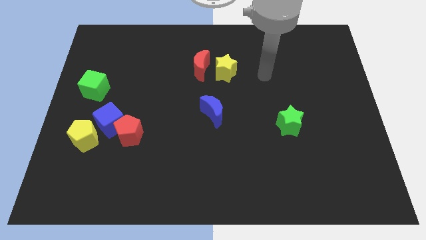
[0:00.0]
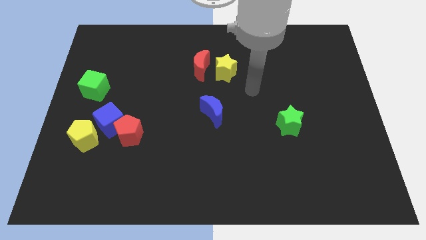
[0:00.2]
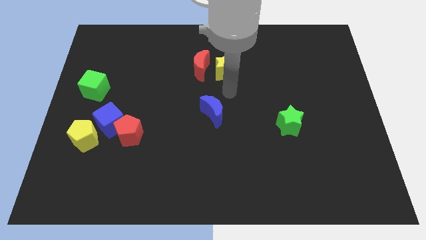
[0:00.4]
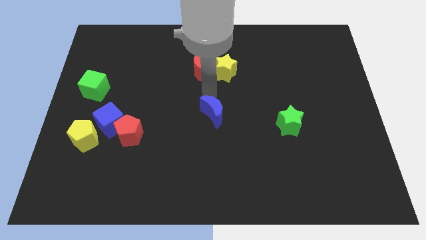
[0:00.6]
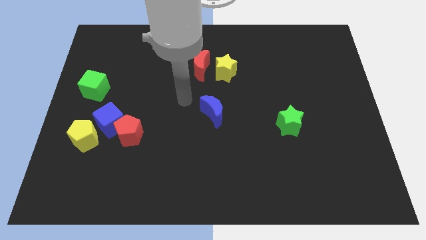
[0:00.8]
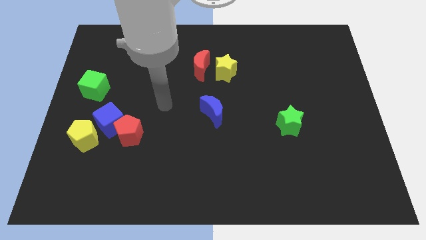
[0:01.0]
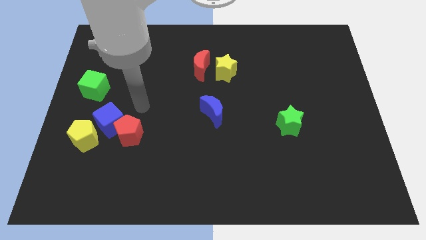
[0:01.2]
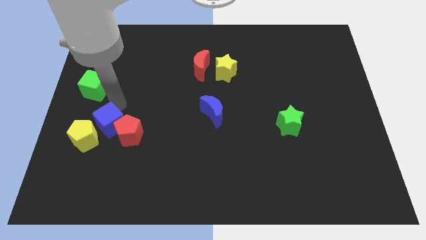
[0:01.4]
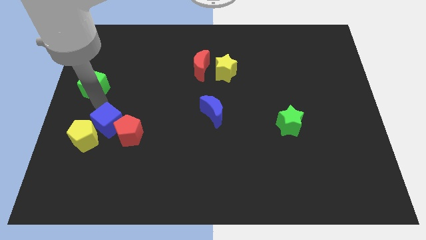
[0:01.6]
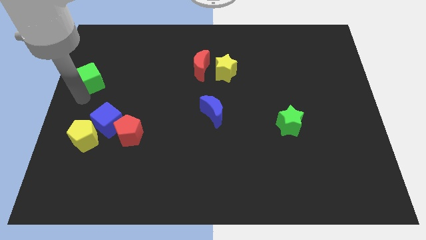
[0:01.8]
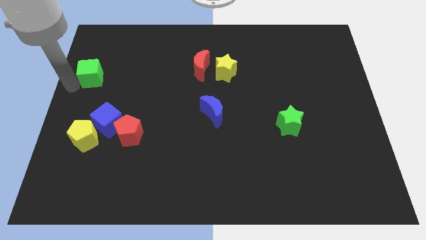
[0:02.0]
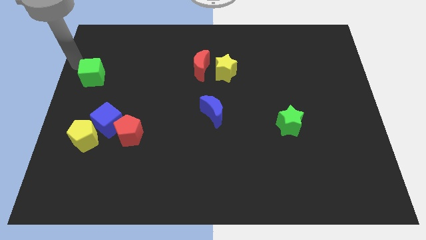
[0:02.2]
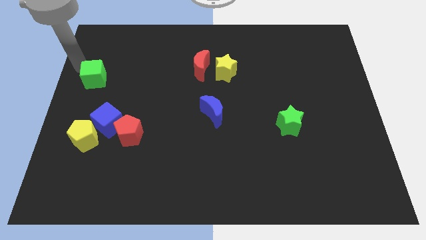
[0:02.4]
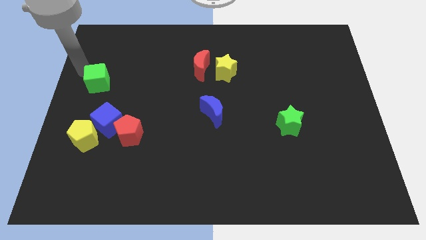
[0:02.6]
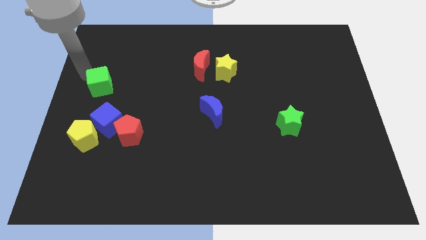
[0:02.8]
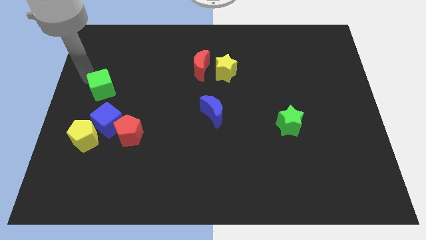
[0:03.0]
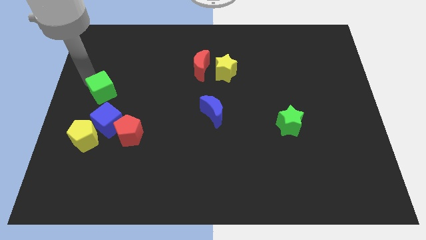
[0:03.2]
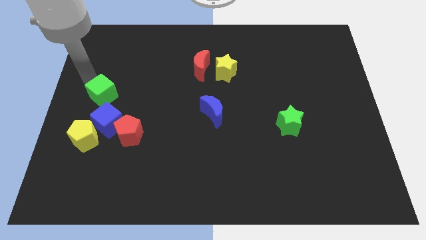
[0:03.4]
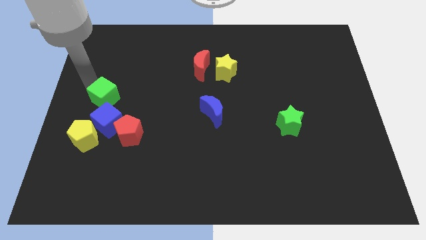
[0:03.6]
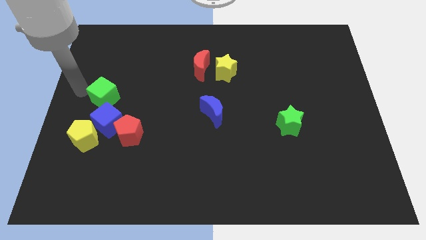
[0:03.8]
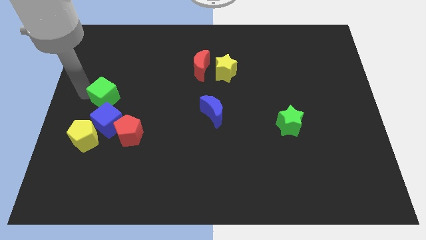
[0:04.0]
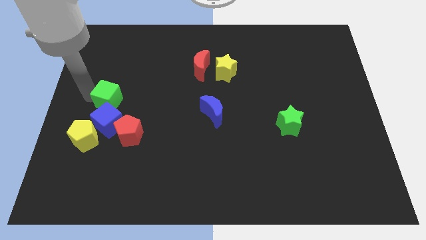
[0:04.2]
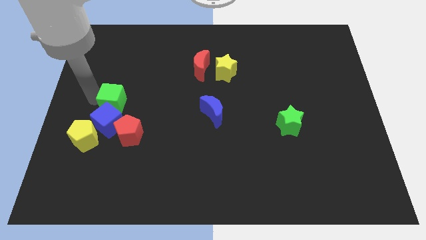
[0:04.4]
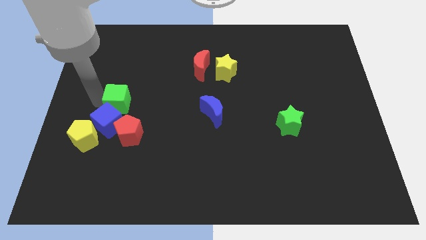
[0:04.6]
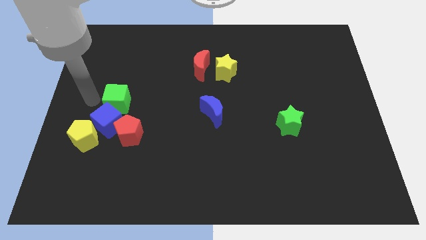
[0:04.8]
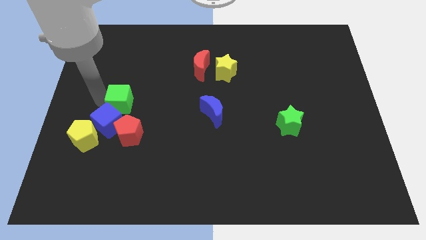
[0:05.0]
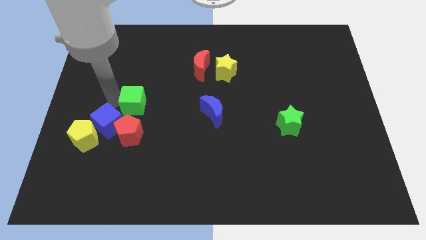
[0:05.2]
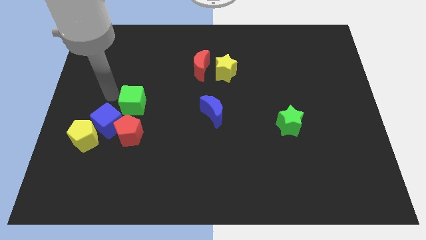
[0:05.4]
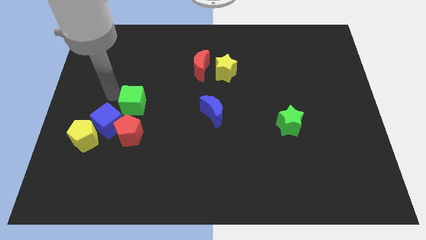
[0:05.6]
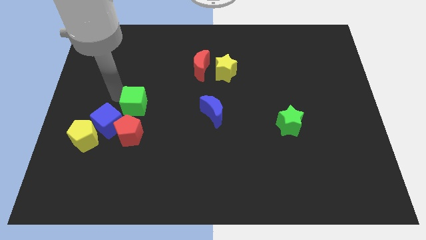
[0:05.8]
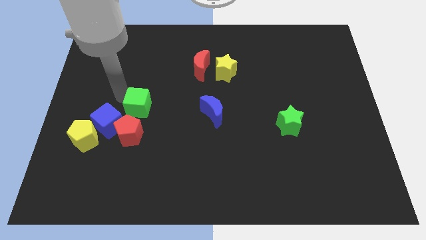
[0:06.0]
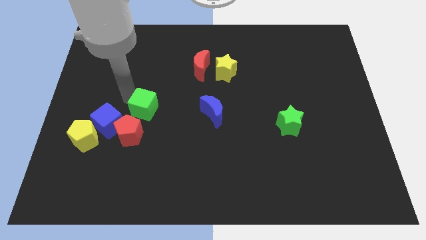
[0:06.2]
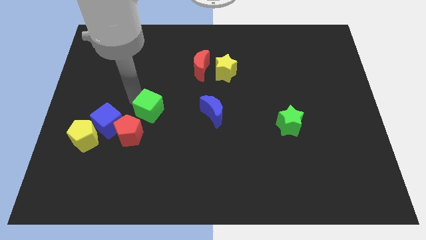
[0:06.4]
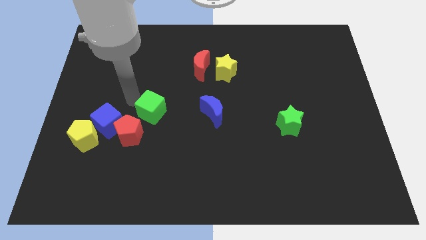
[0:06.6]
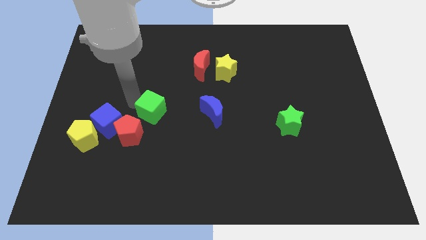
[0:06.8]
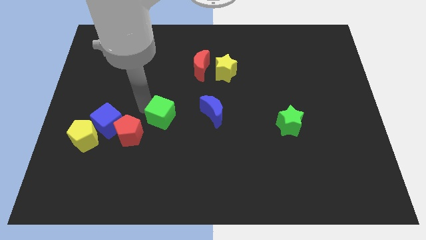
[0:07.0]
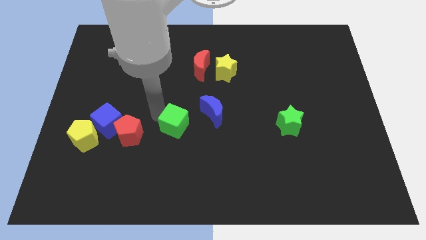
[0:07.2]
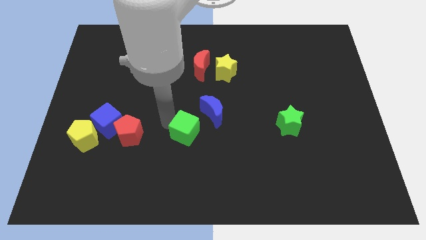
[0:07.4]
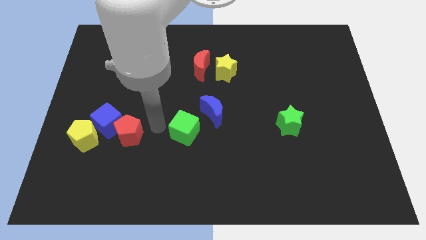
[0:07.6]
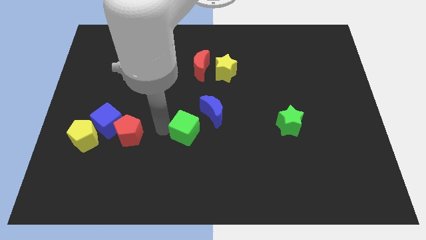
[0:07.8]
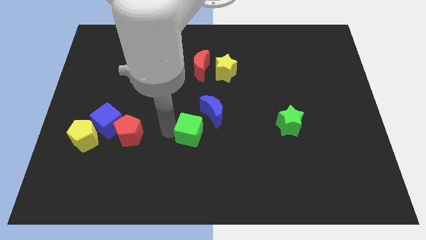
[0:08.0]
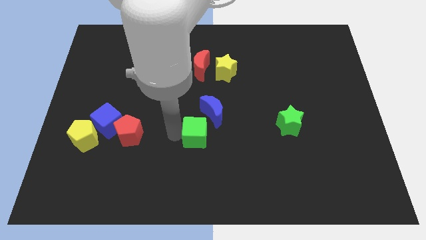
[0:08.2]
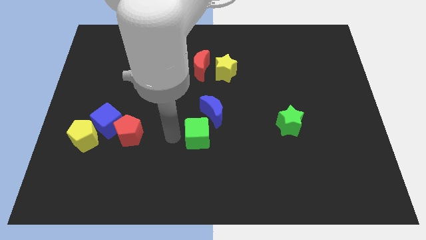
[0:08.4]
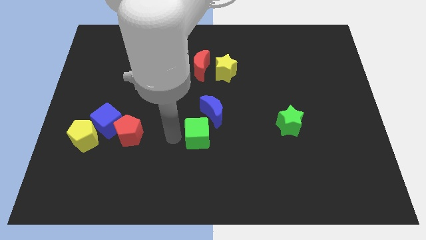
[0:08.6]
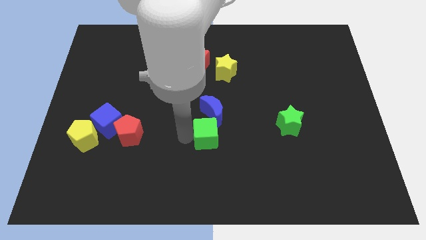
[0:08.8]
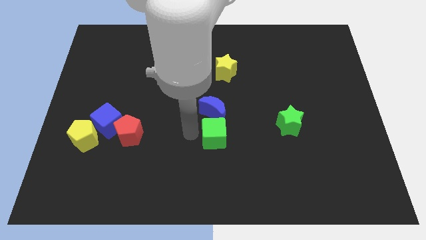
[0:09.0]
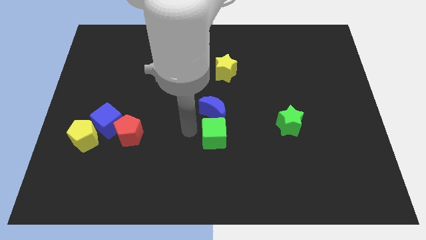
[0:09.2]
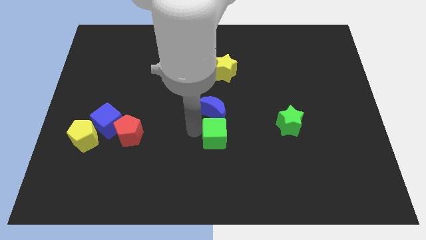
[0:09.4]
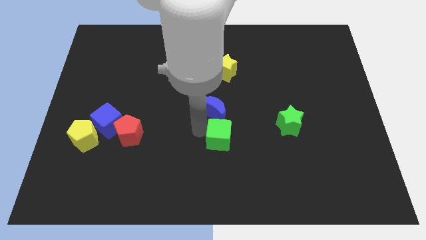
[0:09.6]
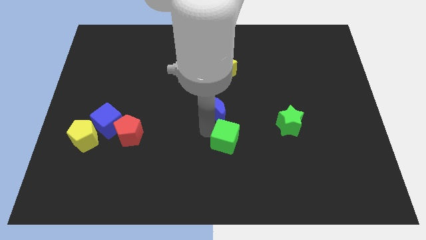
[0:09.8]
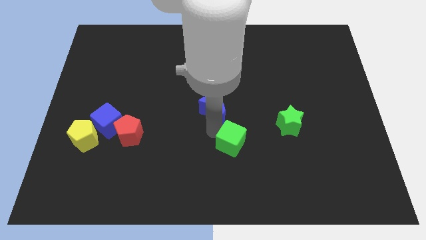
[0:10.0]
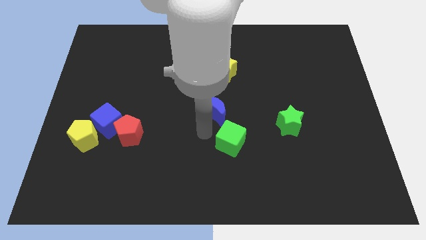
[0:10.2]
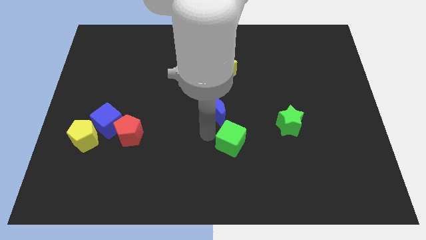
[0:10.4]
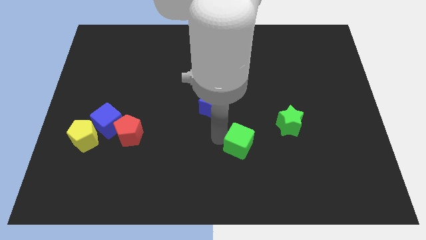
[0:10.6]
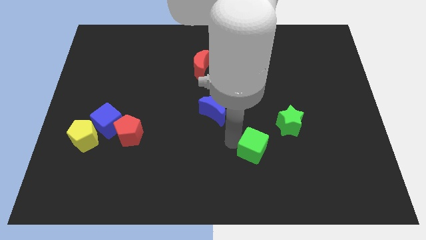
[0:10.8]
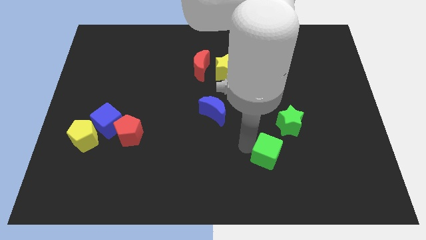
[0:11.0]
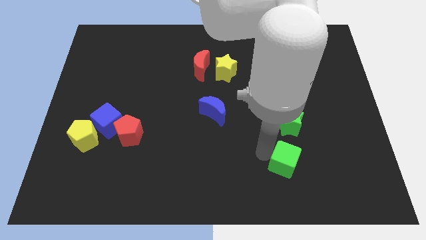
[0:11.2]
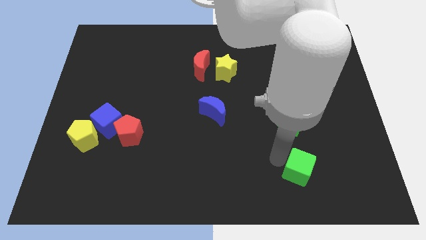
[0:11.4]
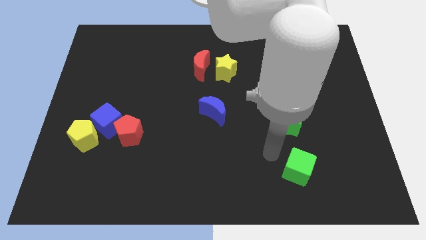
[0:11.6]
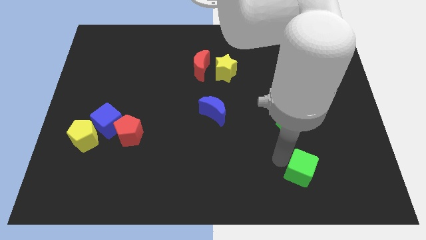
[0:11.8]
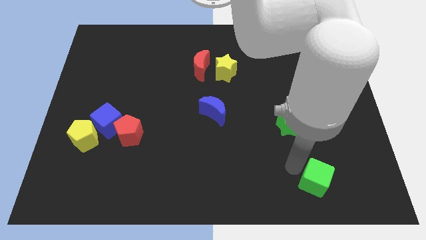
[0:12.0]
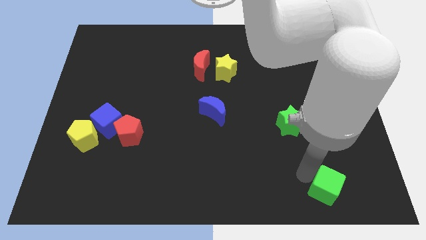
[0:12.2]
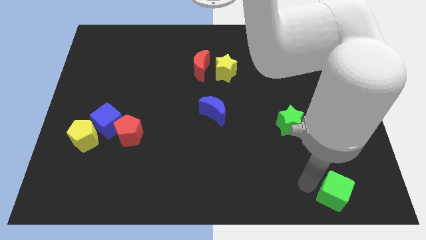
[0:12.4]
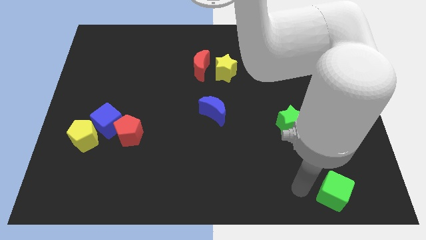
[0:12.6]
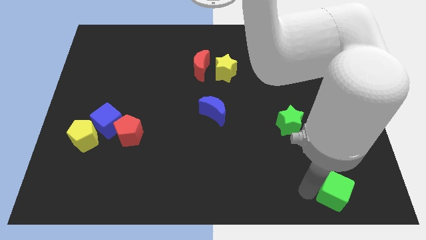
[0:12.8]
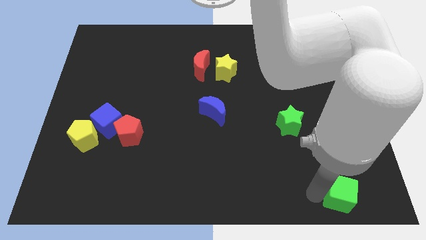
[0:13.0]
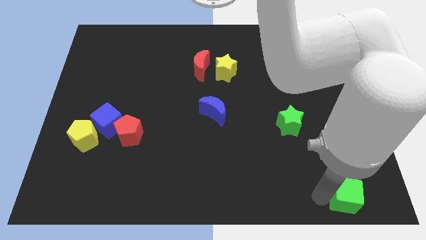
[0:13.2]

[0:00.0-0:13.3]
move the green cube to the bottom right

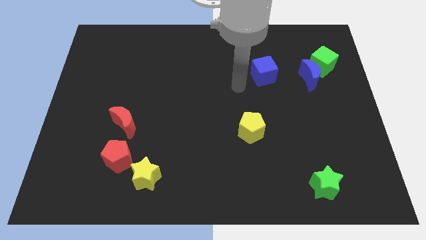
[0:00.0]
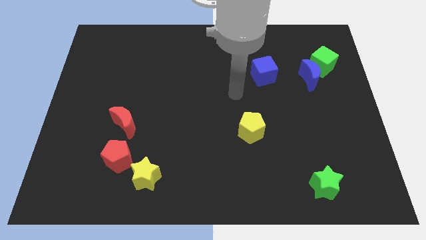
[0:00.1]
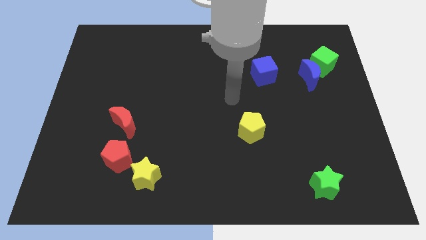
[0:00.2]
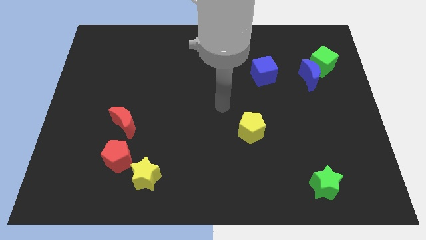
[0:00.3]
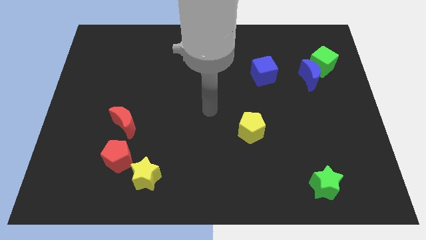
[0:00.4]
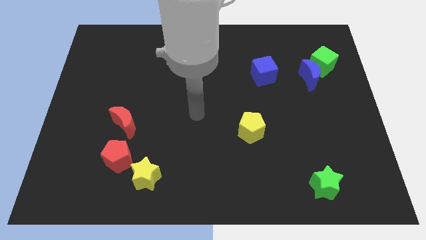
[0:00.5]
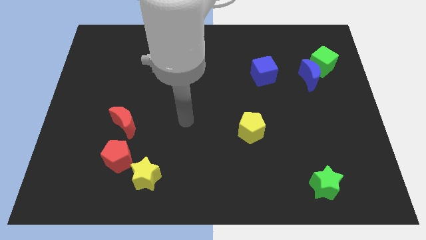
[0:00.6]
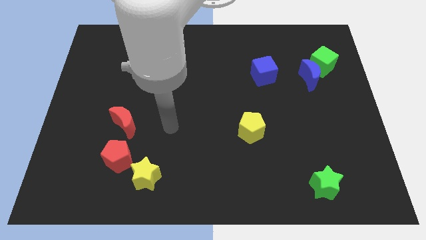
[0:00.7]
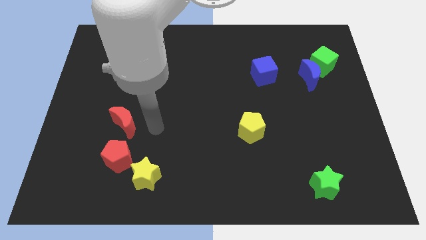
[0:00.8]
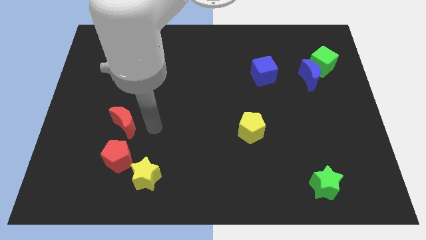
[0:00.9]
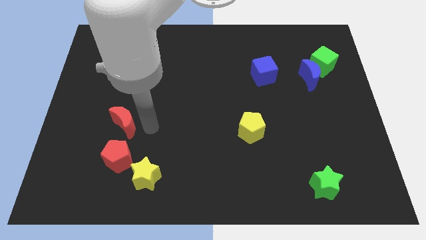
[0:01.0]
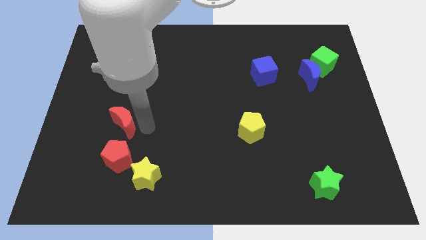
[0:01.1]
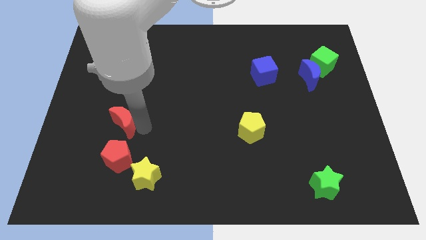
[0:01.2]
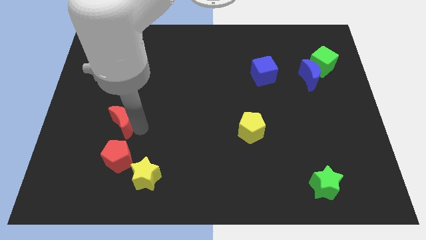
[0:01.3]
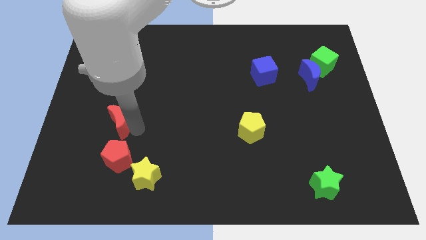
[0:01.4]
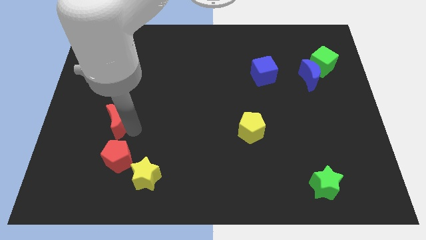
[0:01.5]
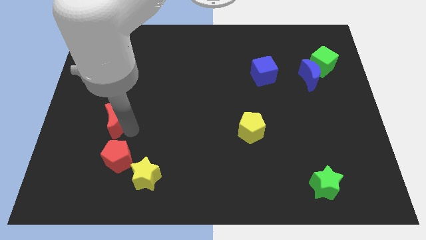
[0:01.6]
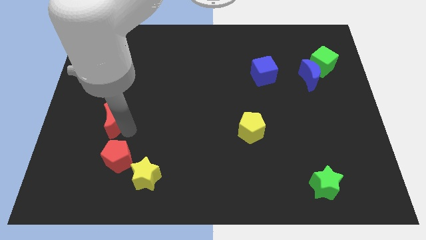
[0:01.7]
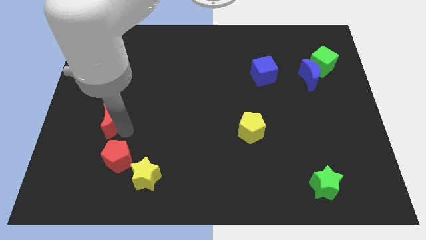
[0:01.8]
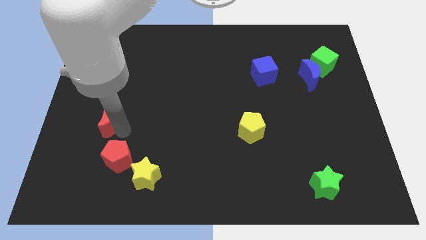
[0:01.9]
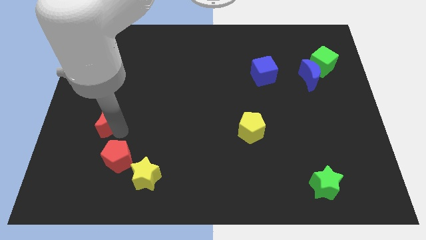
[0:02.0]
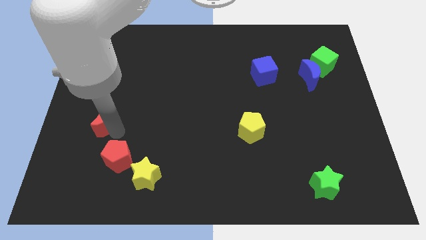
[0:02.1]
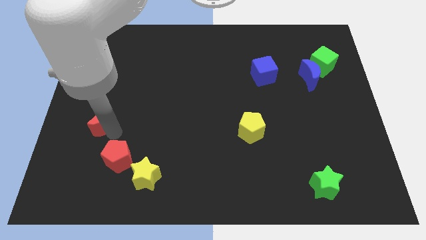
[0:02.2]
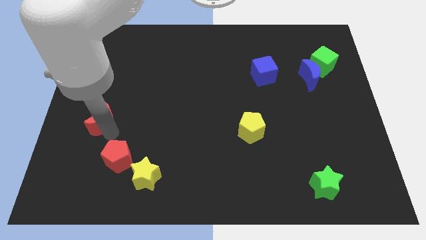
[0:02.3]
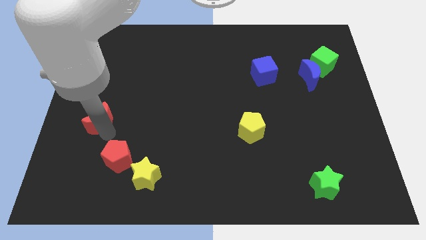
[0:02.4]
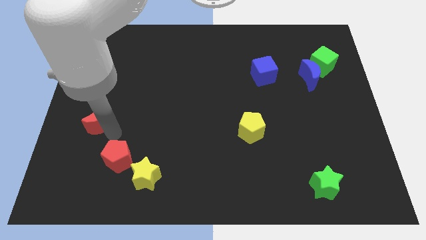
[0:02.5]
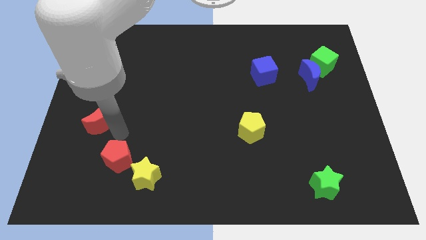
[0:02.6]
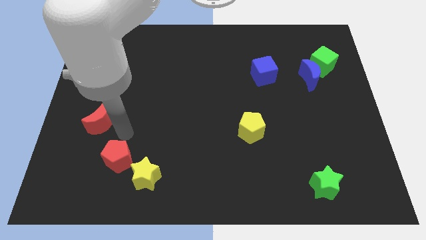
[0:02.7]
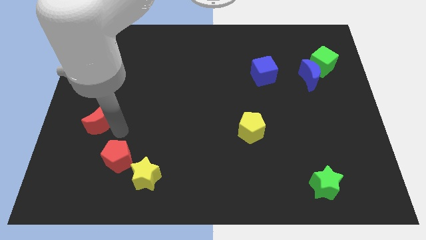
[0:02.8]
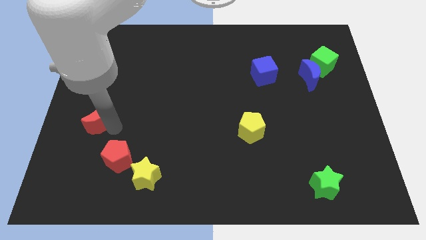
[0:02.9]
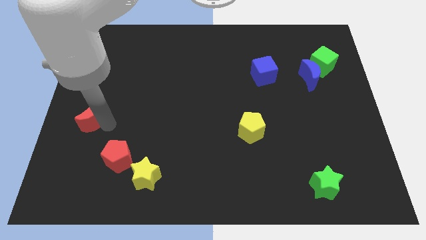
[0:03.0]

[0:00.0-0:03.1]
push the red moon to the left side
